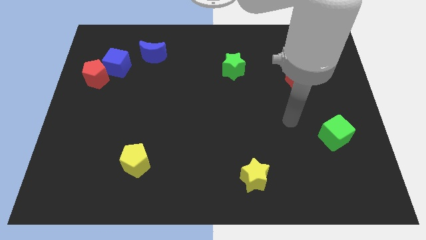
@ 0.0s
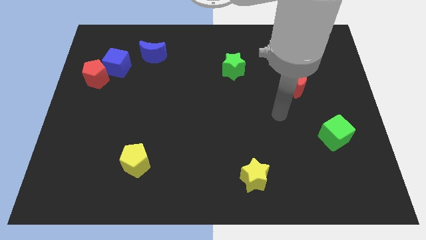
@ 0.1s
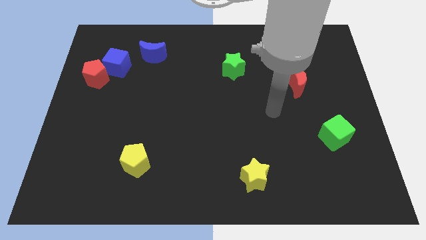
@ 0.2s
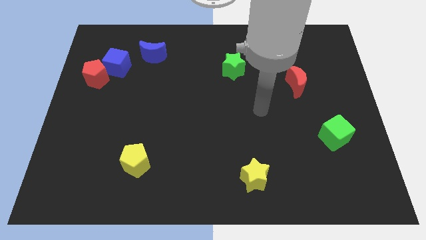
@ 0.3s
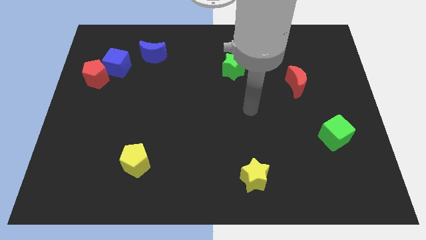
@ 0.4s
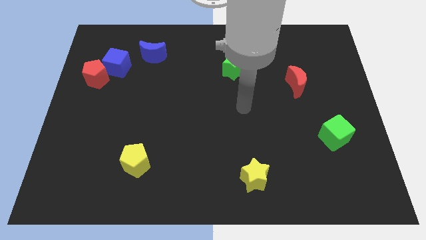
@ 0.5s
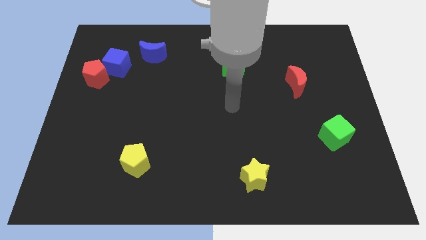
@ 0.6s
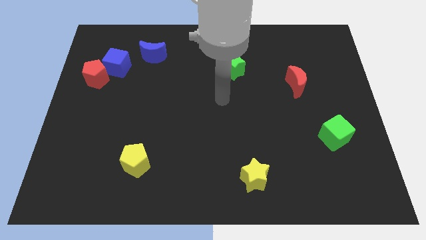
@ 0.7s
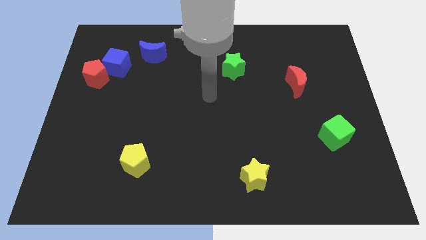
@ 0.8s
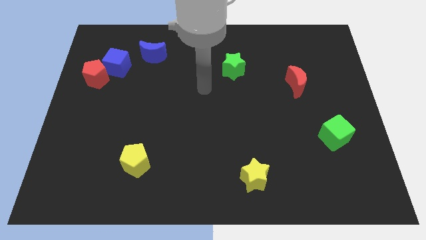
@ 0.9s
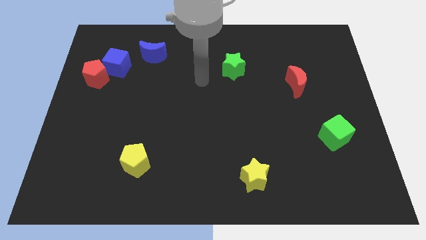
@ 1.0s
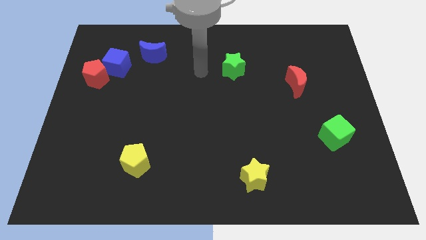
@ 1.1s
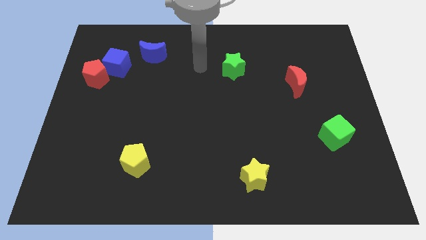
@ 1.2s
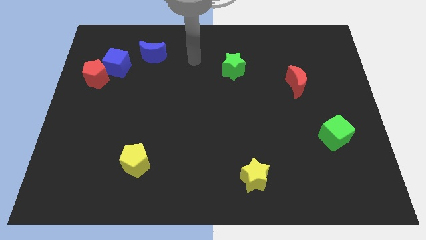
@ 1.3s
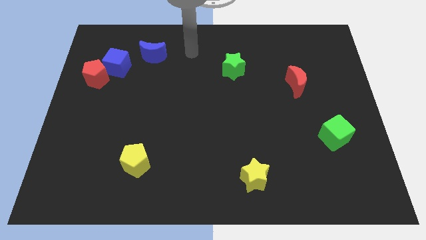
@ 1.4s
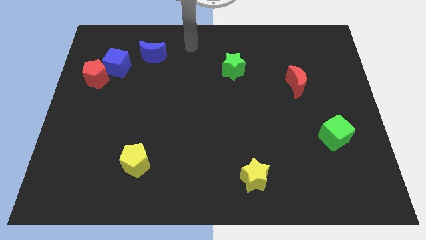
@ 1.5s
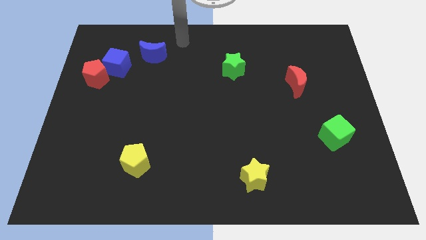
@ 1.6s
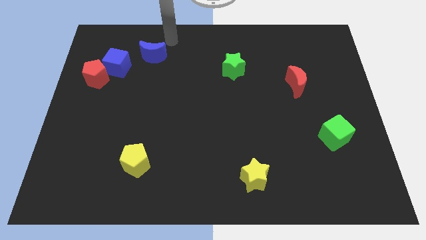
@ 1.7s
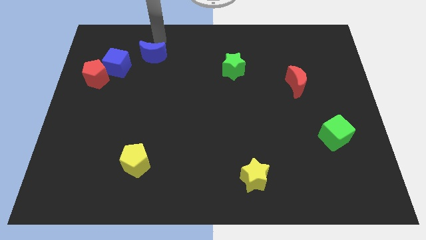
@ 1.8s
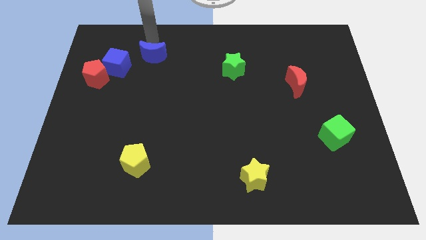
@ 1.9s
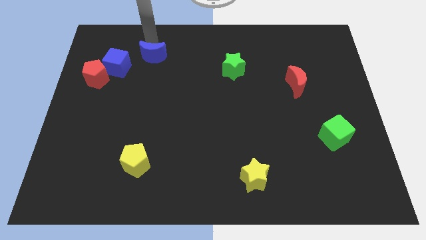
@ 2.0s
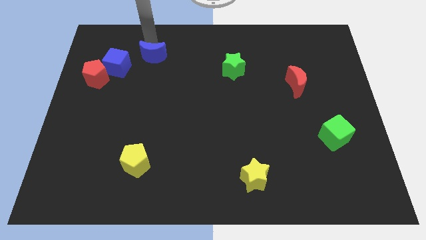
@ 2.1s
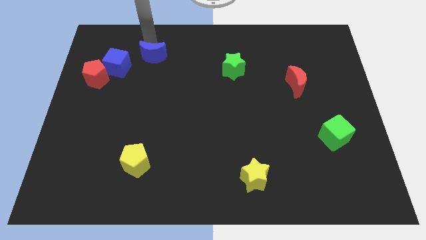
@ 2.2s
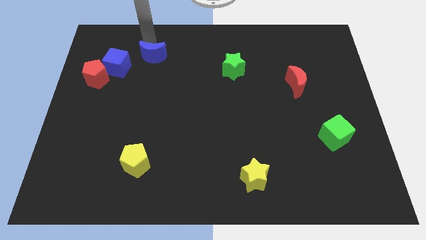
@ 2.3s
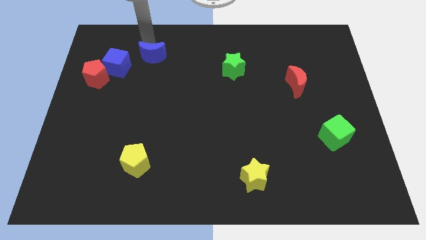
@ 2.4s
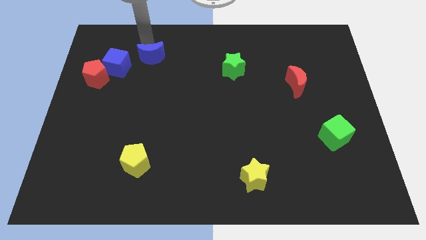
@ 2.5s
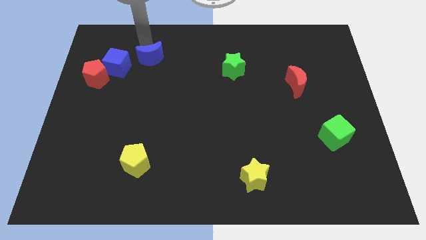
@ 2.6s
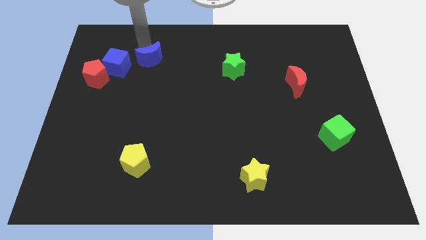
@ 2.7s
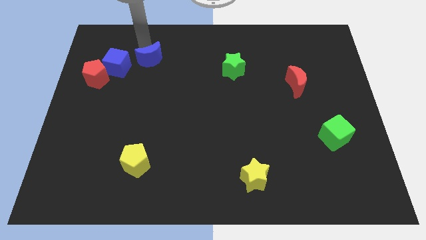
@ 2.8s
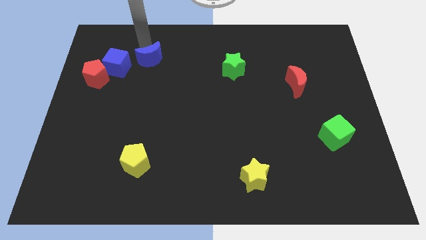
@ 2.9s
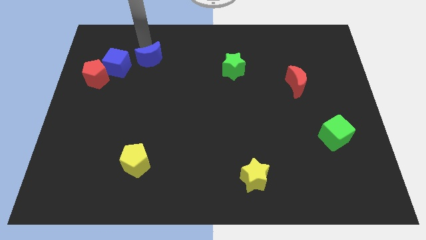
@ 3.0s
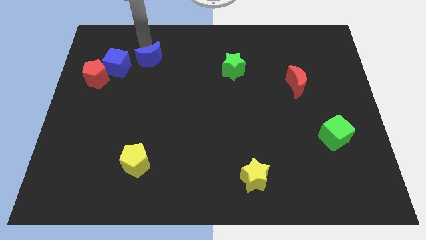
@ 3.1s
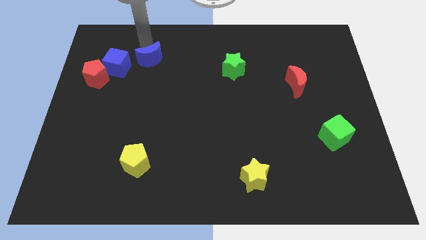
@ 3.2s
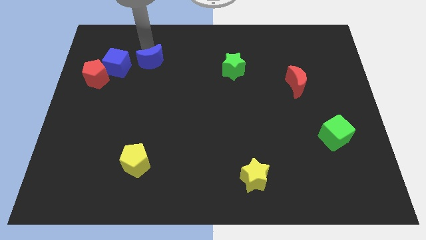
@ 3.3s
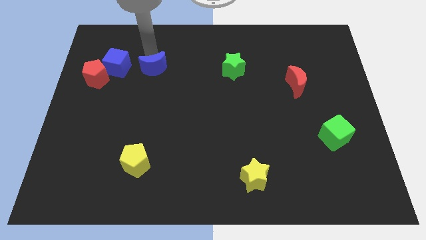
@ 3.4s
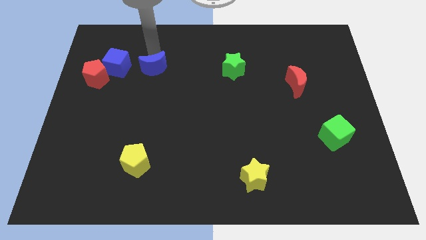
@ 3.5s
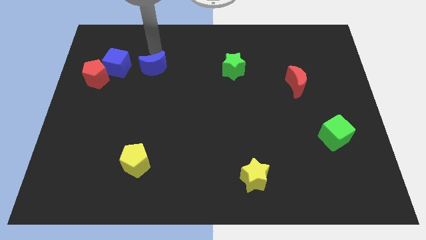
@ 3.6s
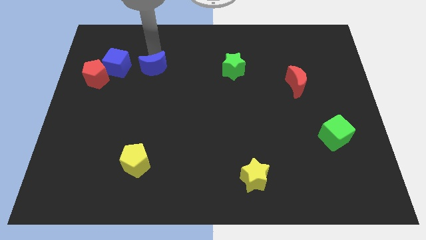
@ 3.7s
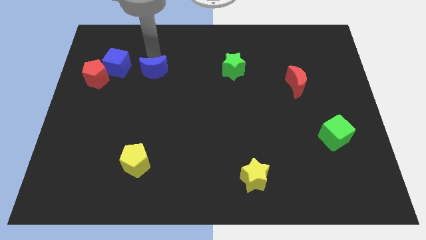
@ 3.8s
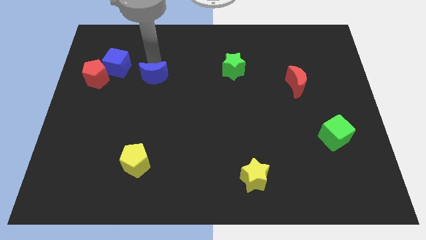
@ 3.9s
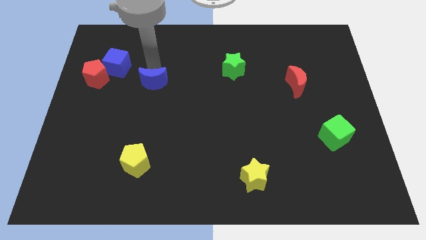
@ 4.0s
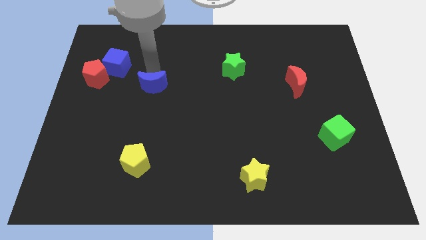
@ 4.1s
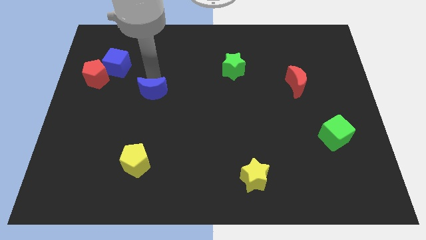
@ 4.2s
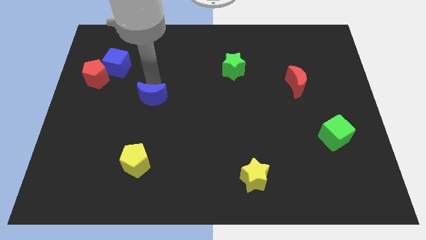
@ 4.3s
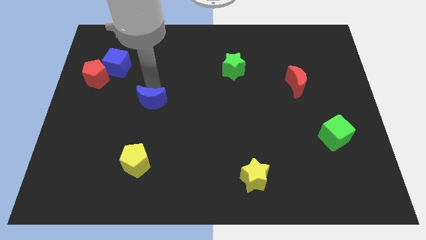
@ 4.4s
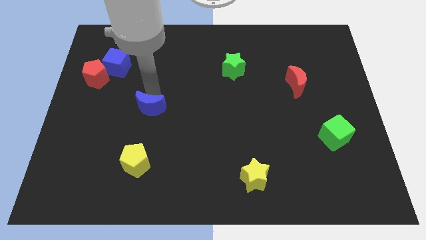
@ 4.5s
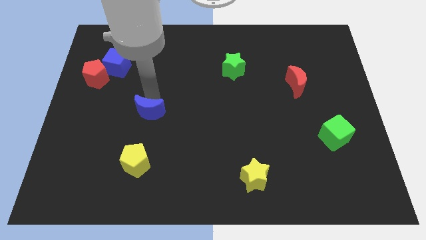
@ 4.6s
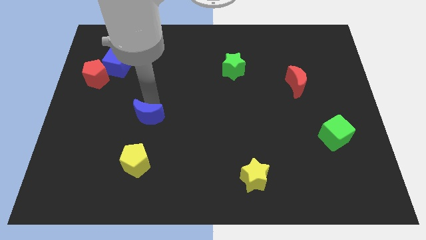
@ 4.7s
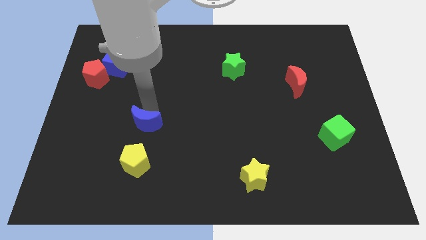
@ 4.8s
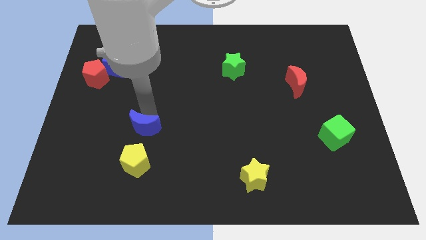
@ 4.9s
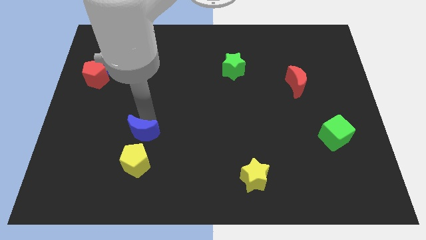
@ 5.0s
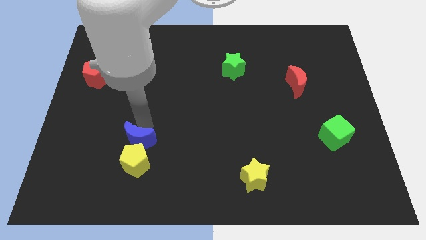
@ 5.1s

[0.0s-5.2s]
push the blue moon close to the yellow pentagon

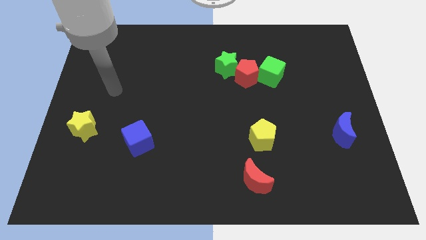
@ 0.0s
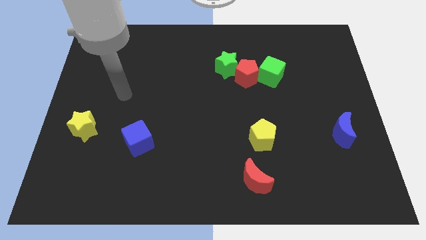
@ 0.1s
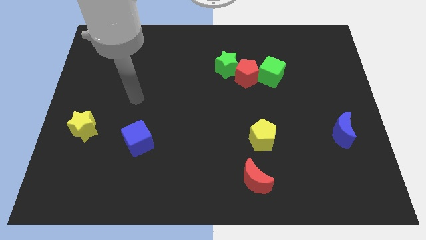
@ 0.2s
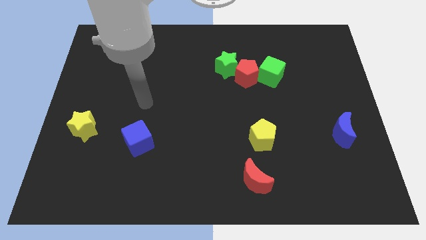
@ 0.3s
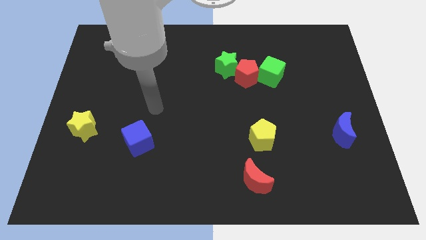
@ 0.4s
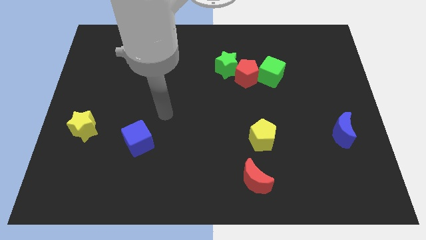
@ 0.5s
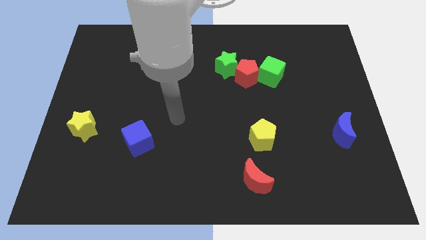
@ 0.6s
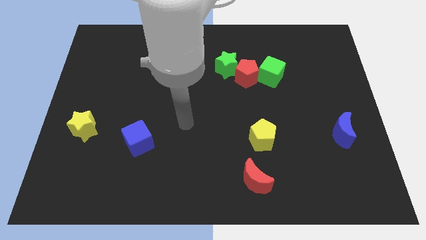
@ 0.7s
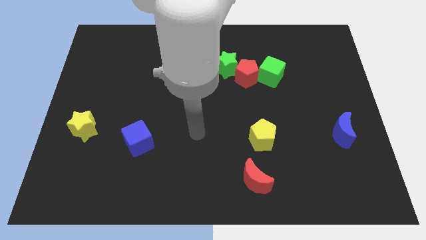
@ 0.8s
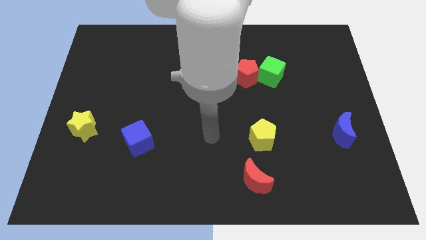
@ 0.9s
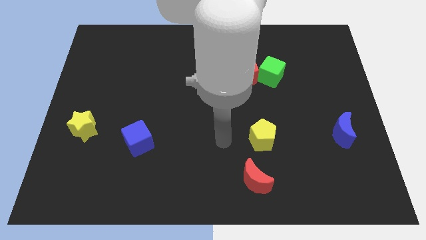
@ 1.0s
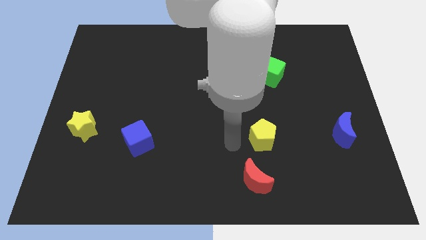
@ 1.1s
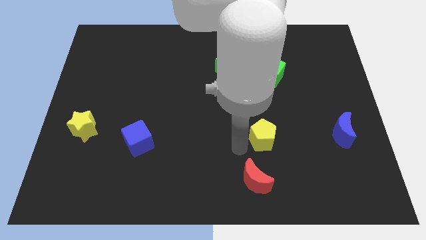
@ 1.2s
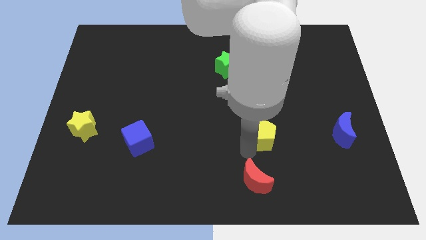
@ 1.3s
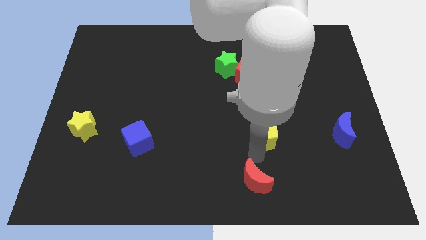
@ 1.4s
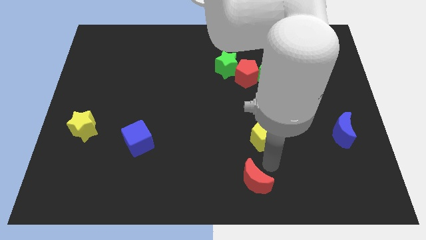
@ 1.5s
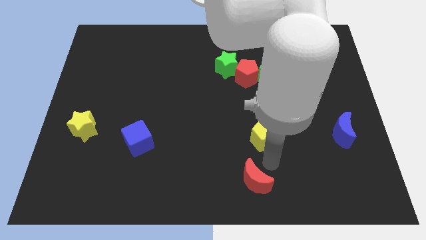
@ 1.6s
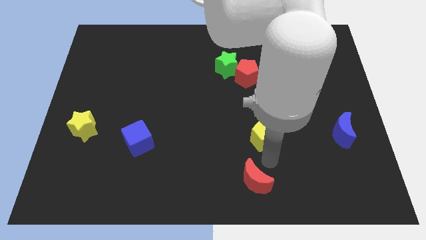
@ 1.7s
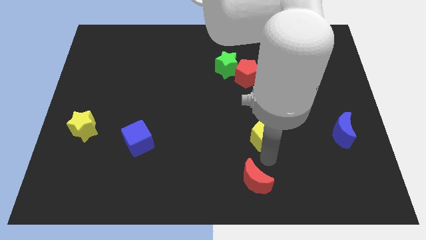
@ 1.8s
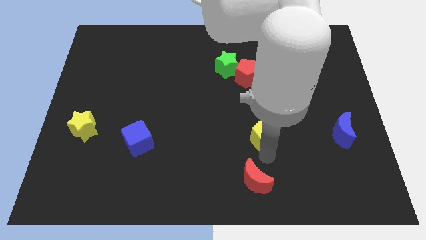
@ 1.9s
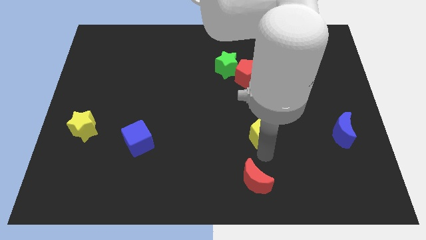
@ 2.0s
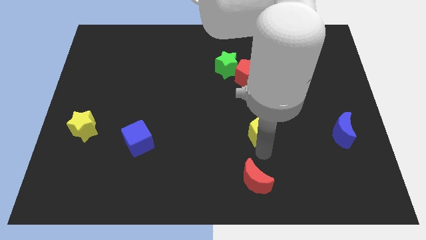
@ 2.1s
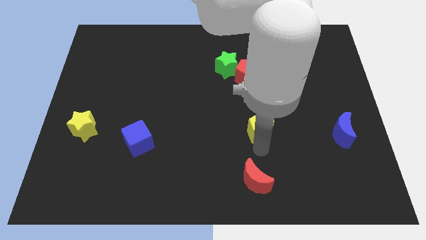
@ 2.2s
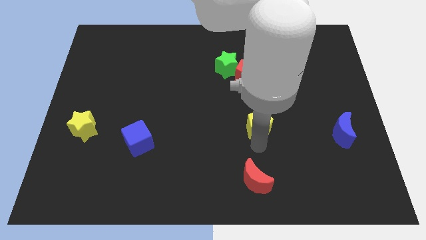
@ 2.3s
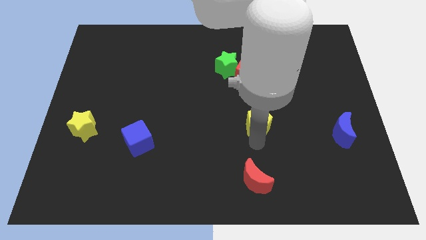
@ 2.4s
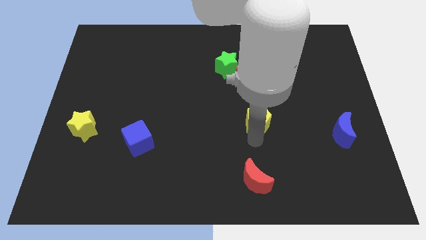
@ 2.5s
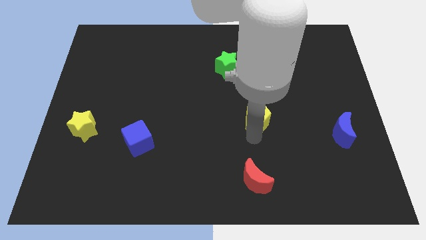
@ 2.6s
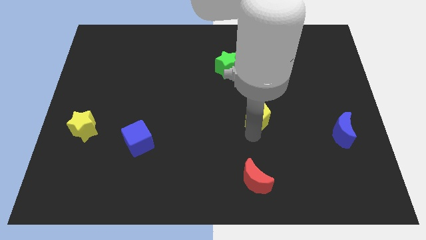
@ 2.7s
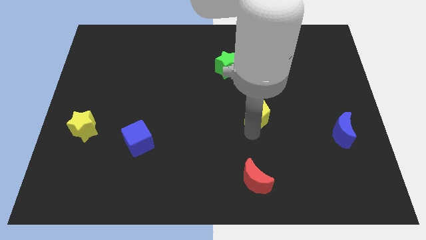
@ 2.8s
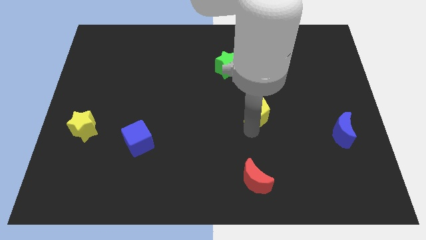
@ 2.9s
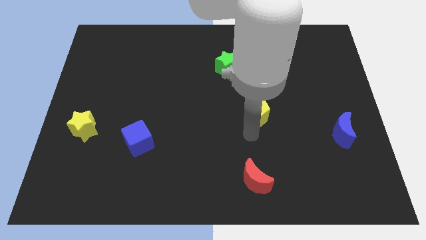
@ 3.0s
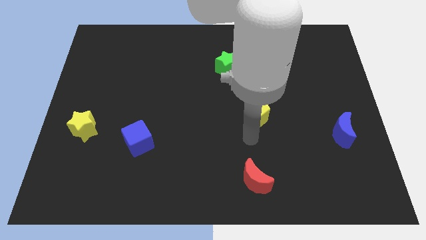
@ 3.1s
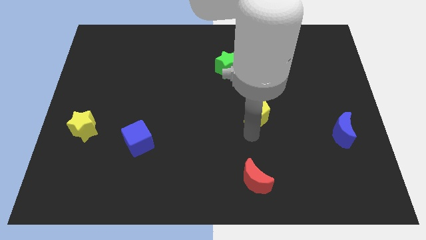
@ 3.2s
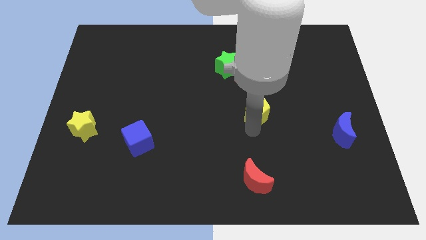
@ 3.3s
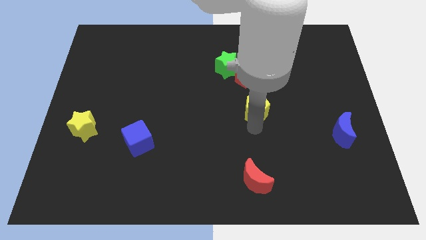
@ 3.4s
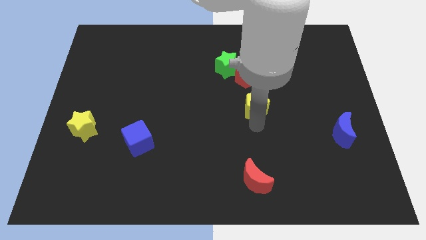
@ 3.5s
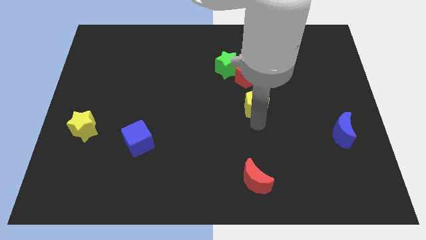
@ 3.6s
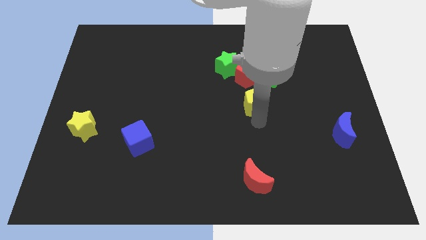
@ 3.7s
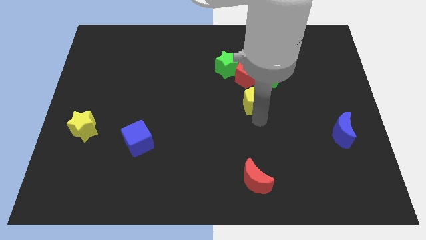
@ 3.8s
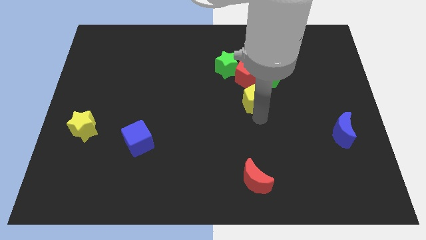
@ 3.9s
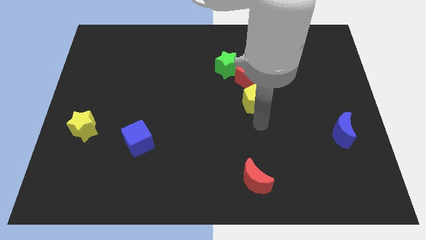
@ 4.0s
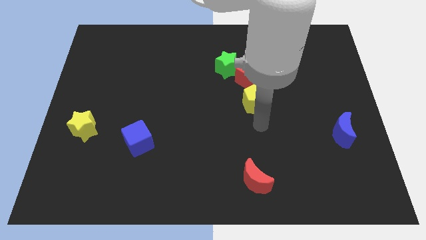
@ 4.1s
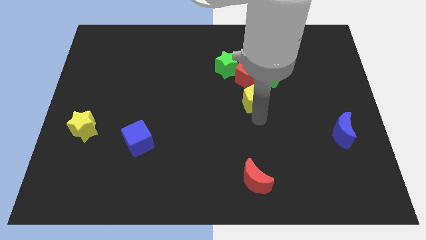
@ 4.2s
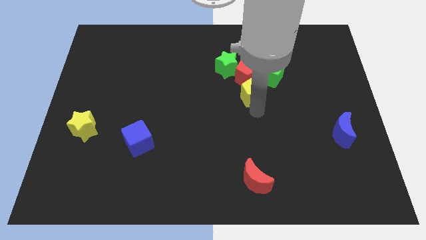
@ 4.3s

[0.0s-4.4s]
put the yellow pentagon close to the red pentagon
